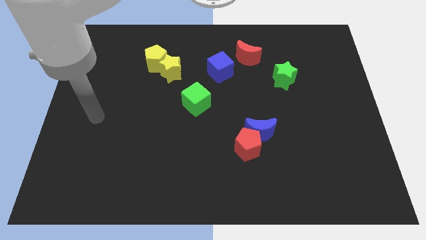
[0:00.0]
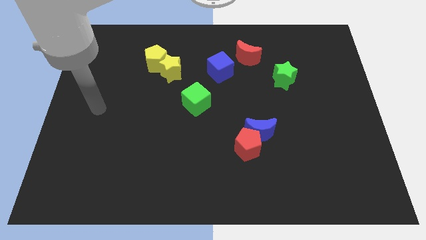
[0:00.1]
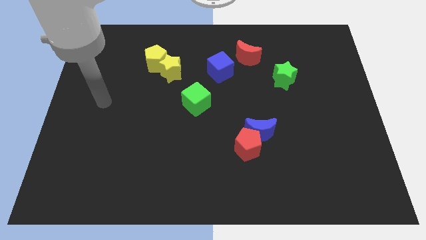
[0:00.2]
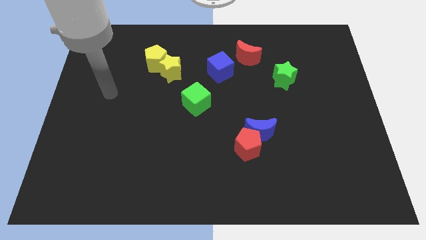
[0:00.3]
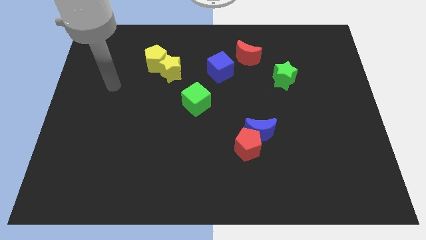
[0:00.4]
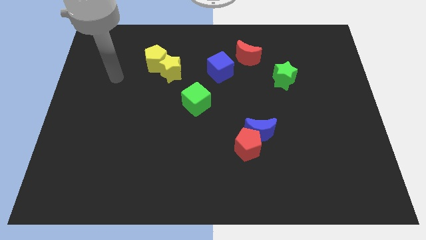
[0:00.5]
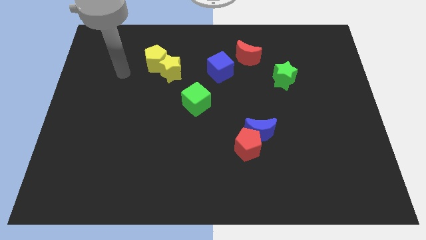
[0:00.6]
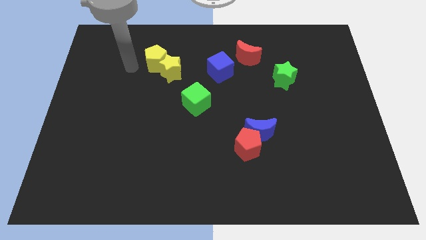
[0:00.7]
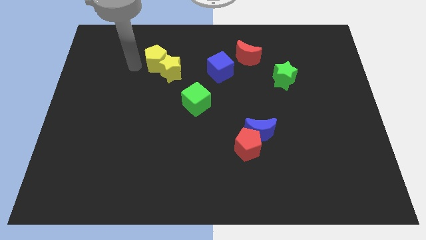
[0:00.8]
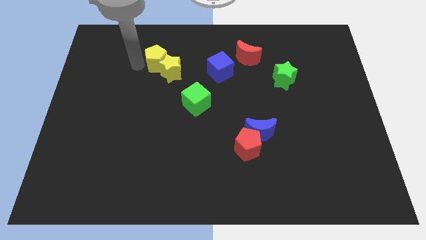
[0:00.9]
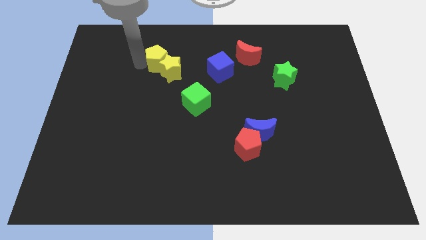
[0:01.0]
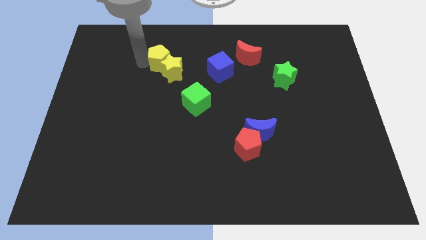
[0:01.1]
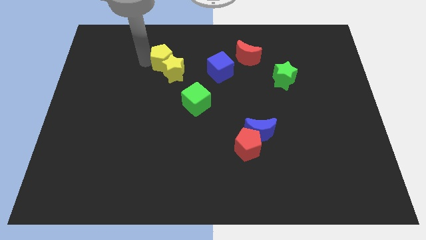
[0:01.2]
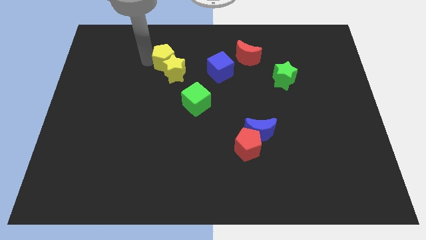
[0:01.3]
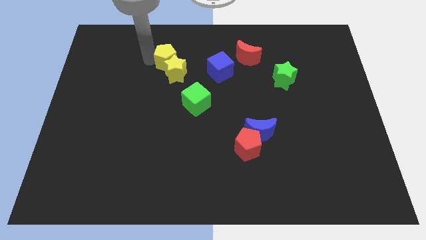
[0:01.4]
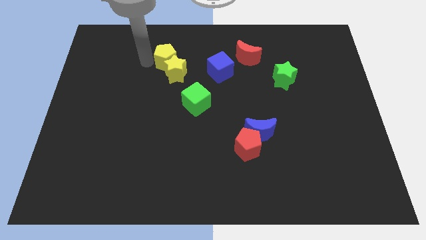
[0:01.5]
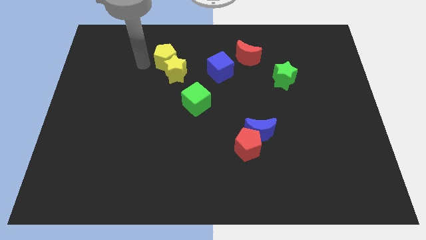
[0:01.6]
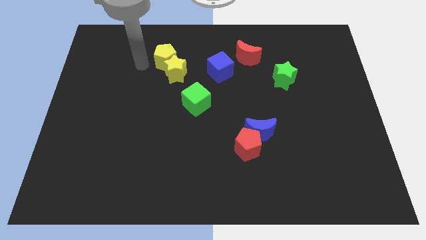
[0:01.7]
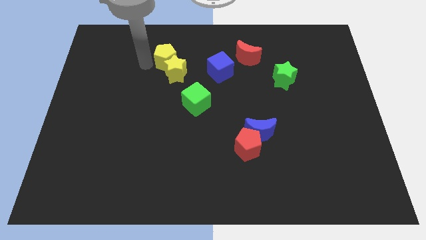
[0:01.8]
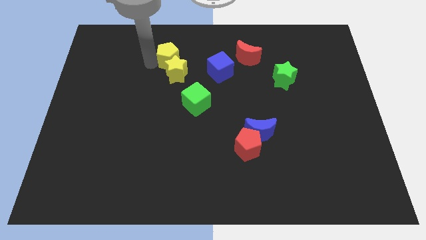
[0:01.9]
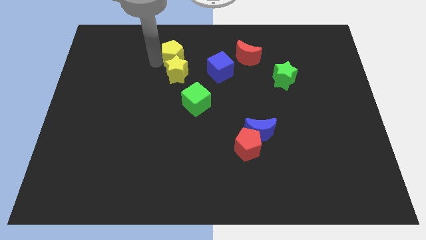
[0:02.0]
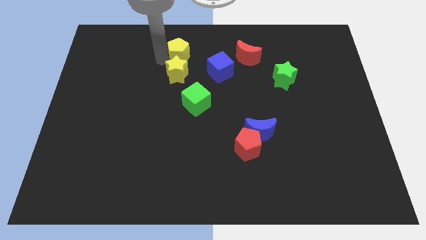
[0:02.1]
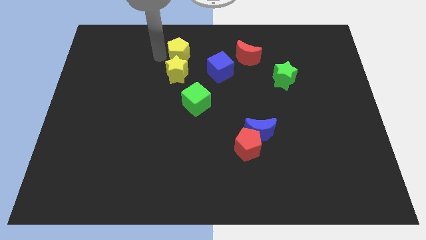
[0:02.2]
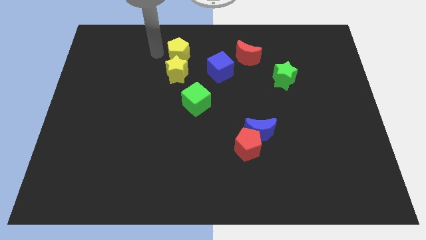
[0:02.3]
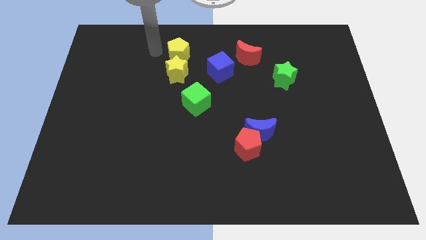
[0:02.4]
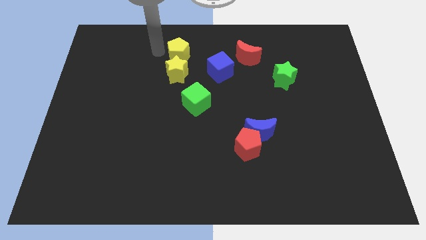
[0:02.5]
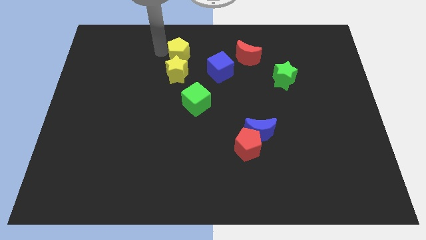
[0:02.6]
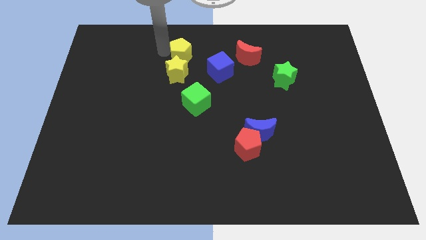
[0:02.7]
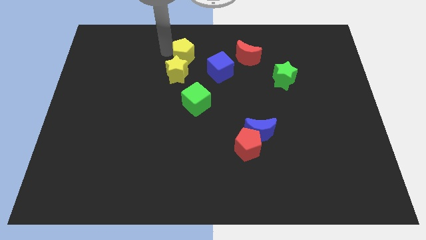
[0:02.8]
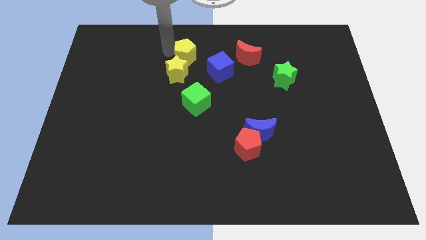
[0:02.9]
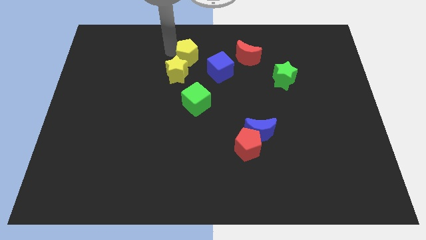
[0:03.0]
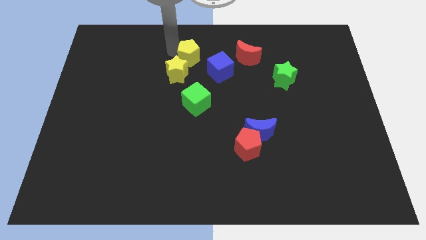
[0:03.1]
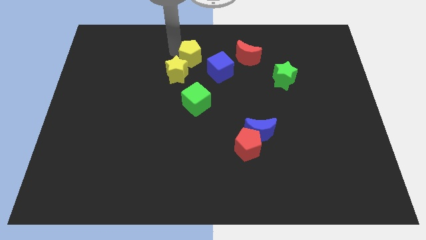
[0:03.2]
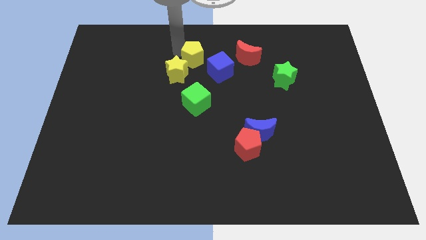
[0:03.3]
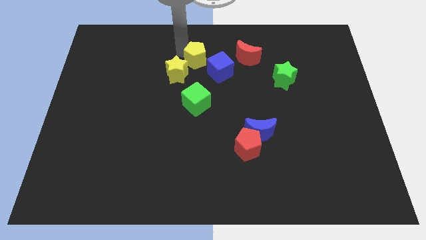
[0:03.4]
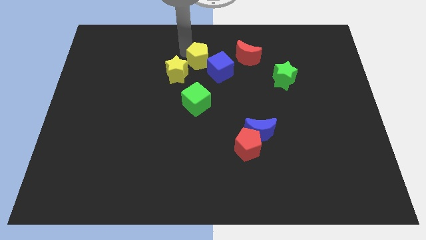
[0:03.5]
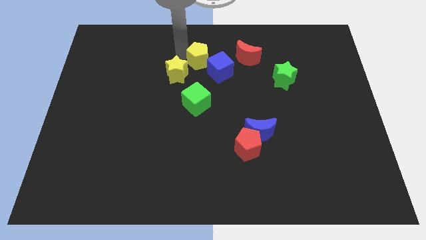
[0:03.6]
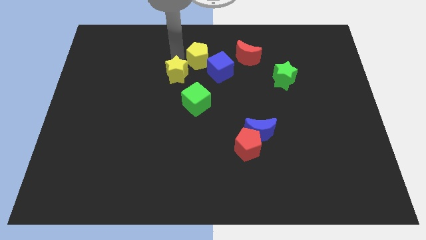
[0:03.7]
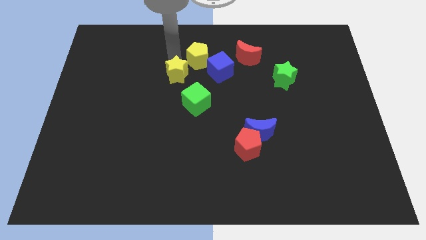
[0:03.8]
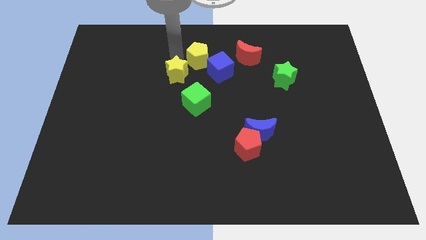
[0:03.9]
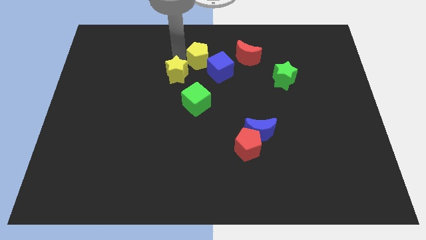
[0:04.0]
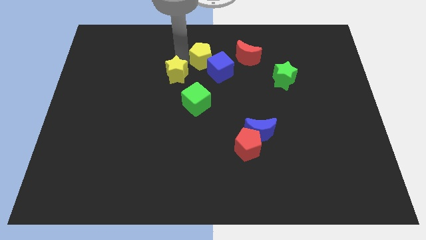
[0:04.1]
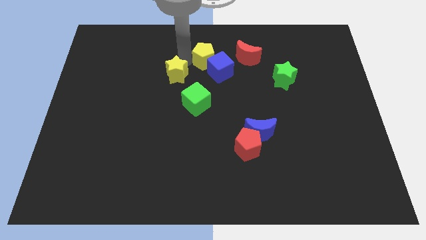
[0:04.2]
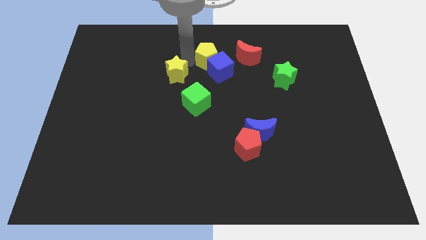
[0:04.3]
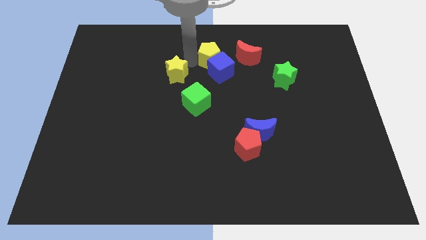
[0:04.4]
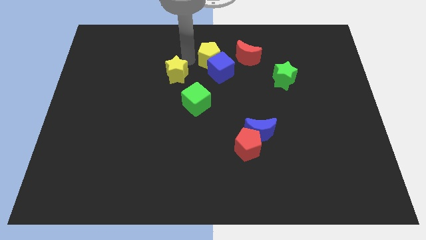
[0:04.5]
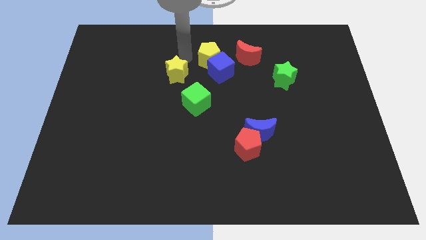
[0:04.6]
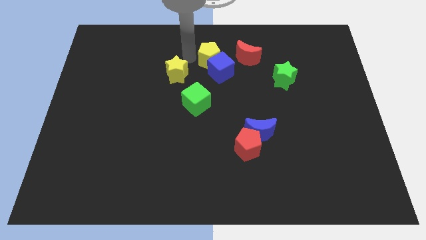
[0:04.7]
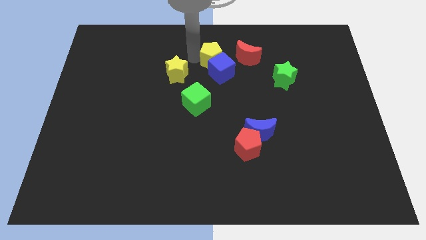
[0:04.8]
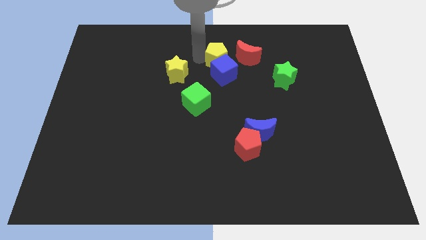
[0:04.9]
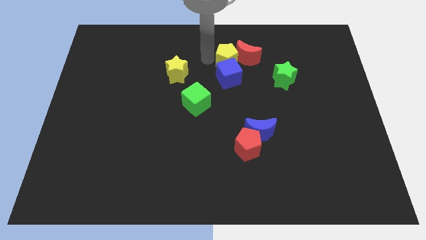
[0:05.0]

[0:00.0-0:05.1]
slide the yellow pentagon towards the red moon

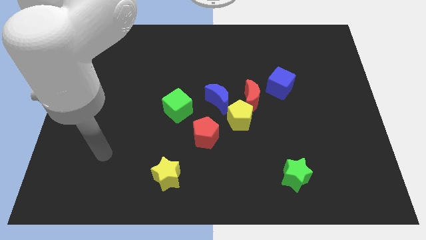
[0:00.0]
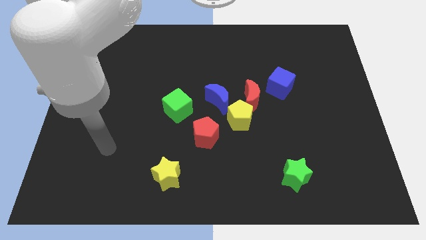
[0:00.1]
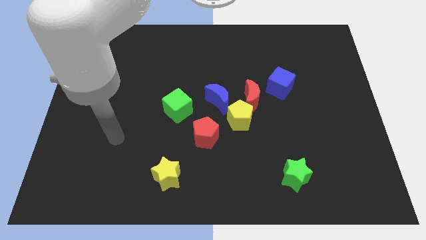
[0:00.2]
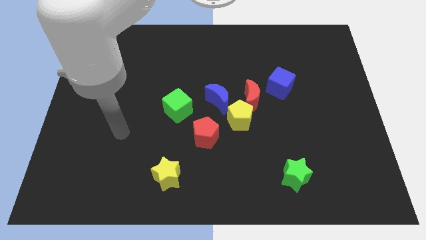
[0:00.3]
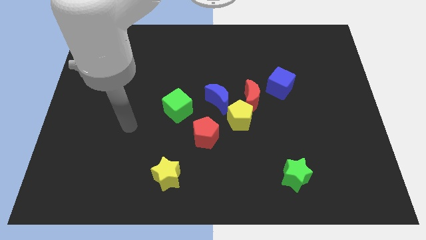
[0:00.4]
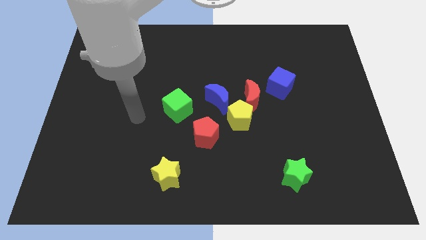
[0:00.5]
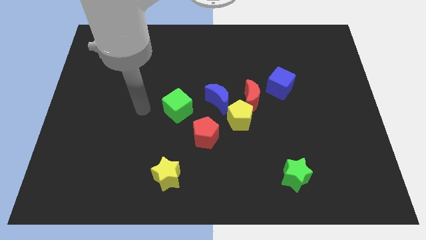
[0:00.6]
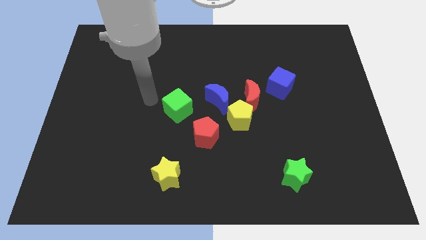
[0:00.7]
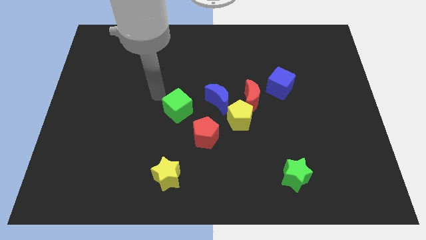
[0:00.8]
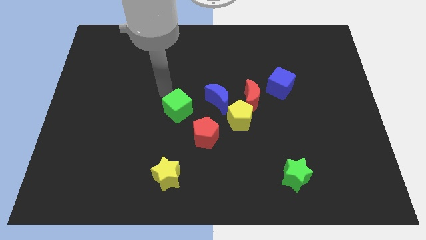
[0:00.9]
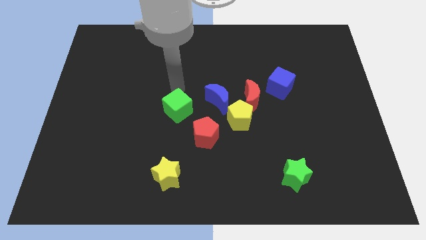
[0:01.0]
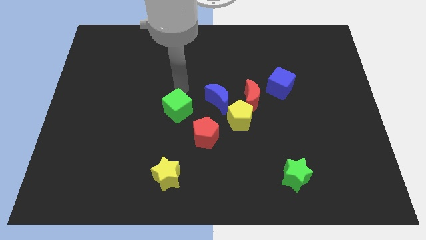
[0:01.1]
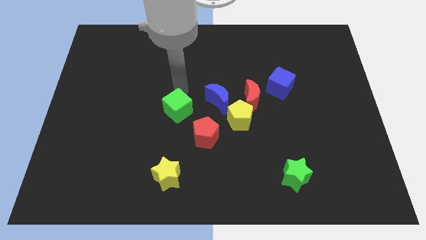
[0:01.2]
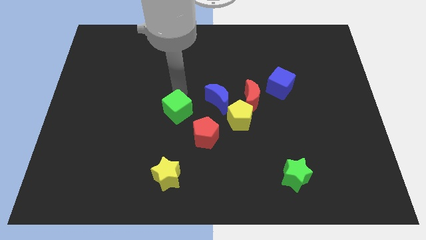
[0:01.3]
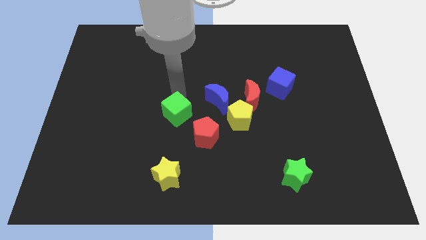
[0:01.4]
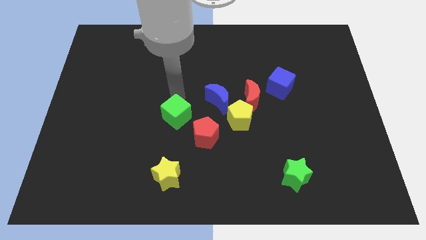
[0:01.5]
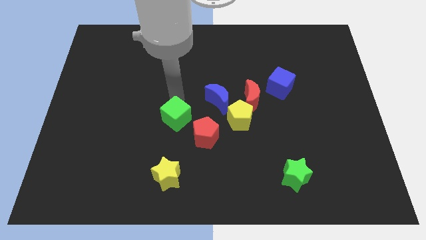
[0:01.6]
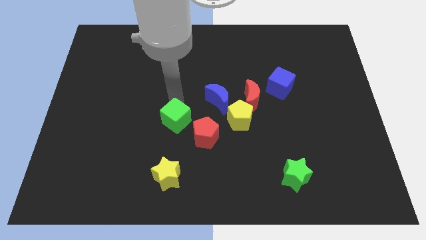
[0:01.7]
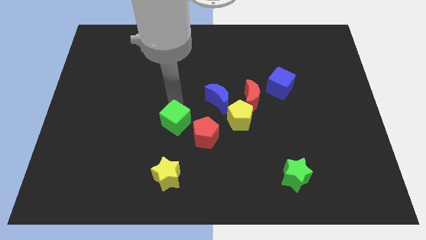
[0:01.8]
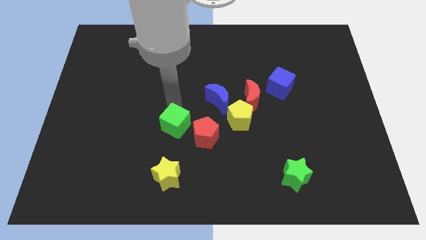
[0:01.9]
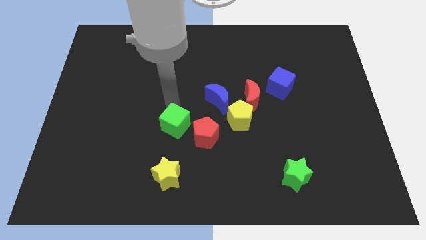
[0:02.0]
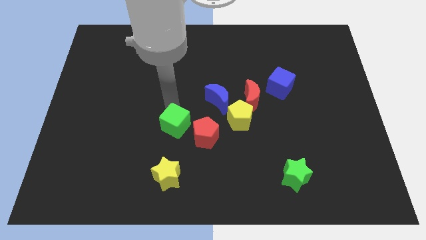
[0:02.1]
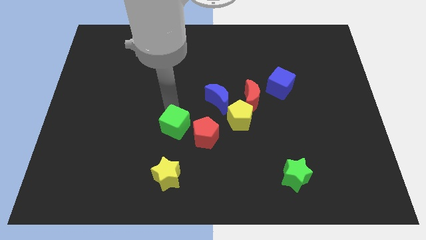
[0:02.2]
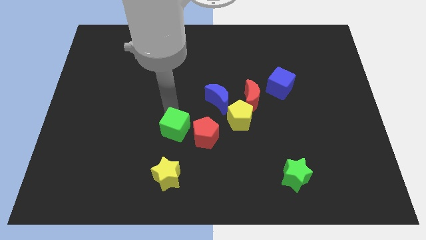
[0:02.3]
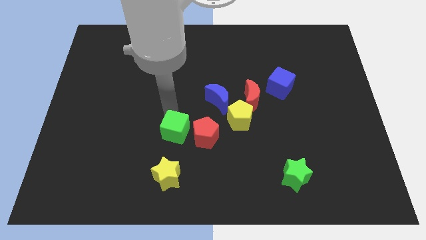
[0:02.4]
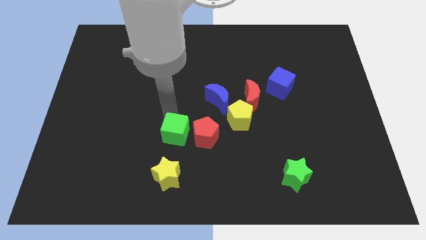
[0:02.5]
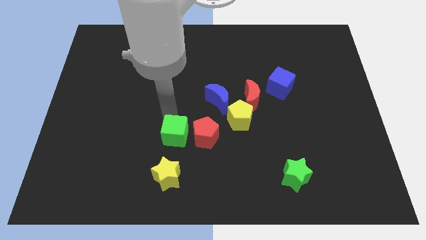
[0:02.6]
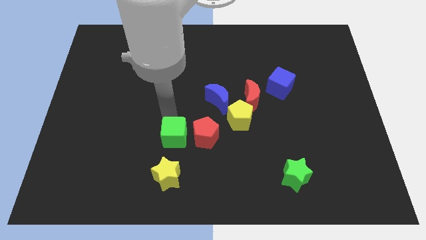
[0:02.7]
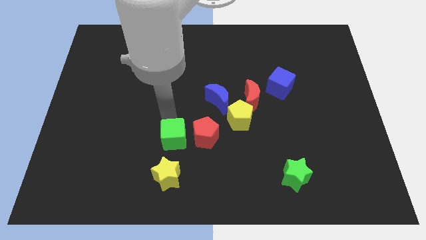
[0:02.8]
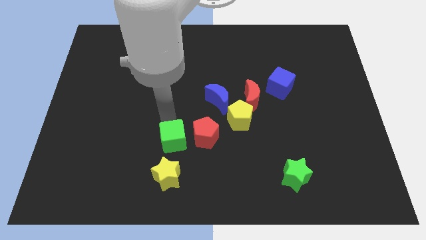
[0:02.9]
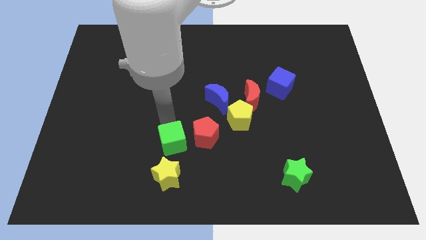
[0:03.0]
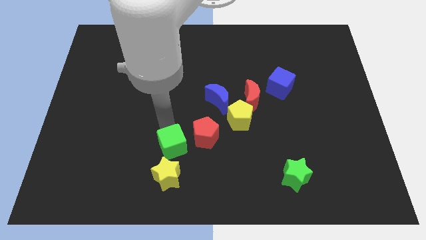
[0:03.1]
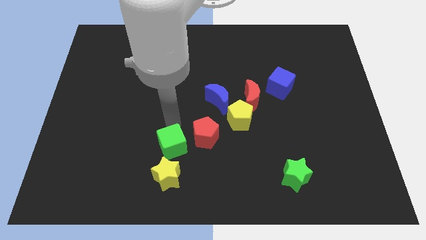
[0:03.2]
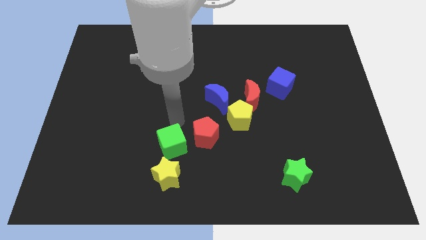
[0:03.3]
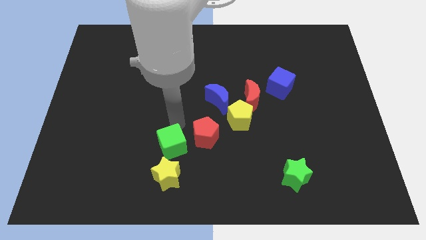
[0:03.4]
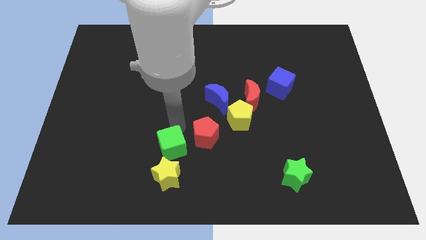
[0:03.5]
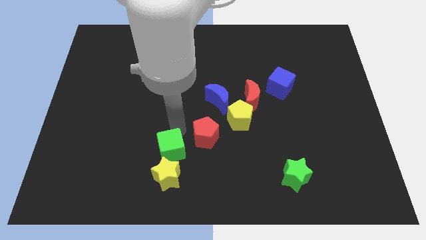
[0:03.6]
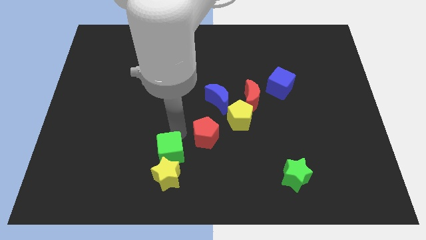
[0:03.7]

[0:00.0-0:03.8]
move the green cube next to the yellow star
